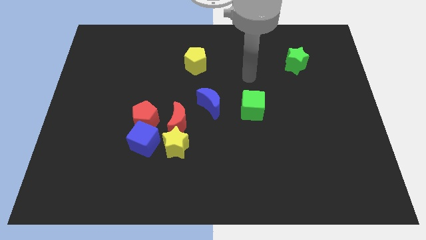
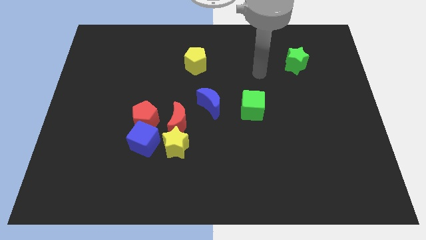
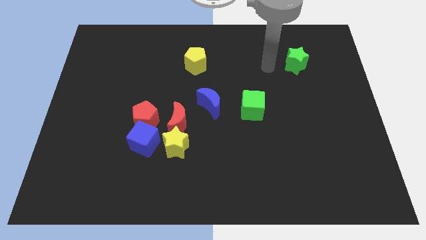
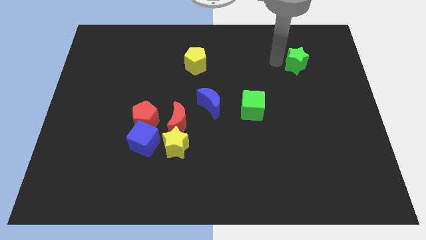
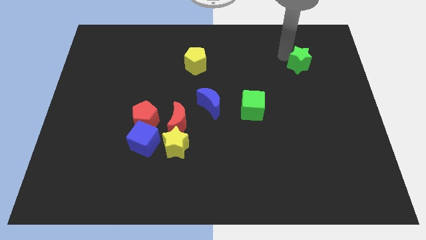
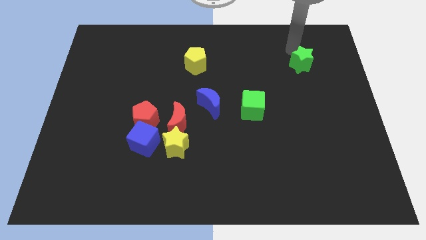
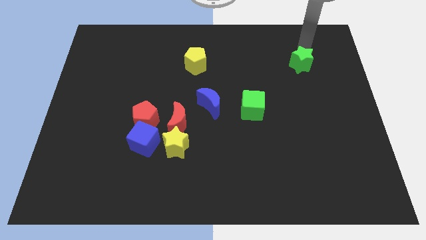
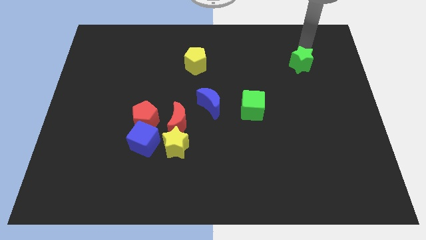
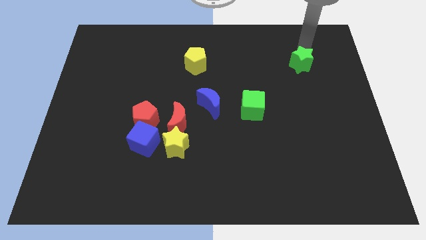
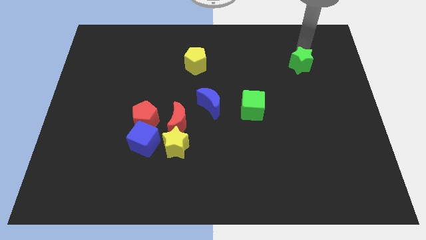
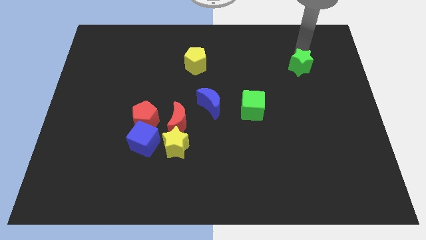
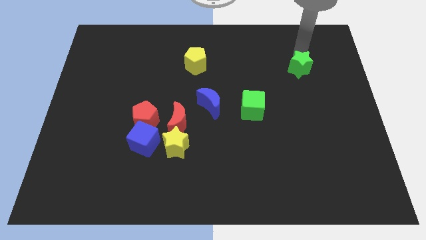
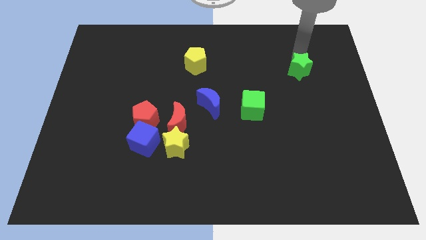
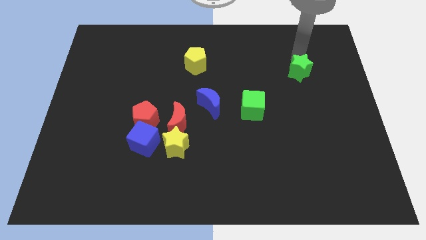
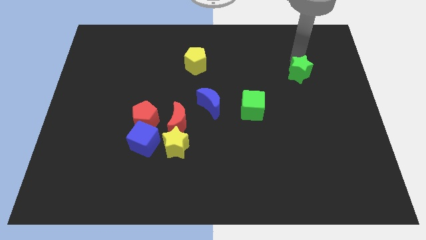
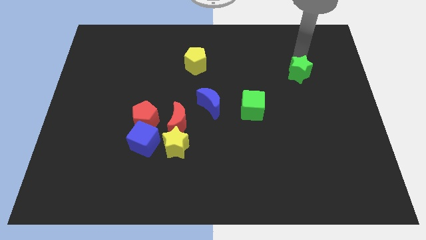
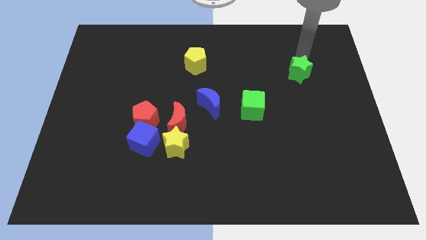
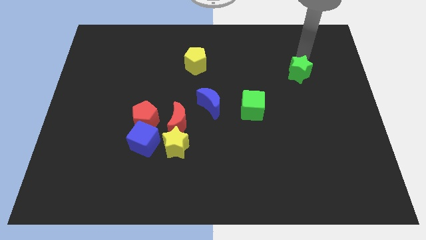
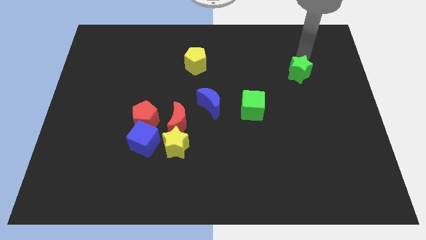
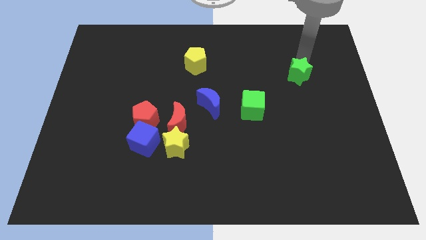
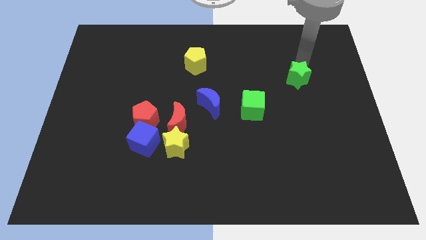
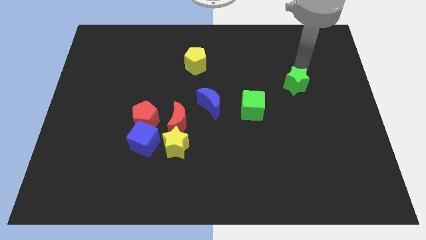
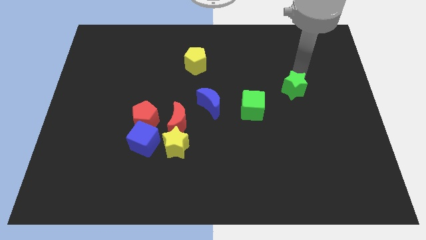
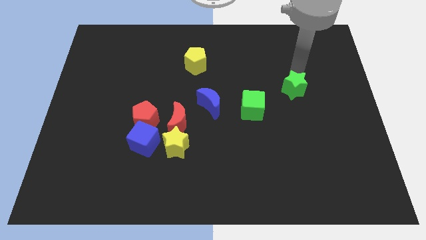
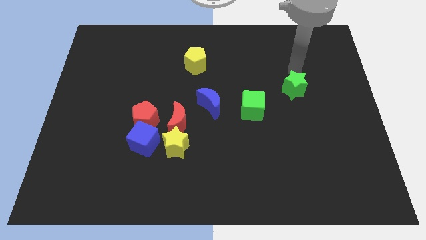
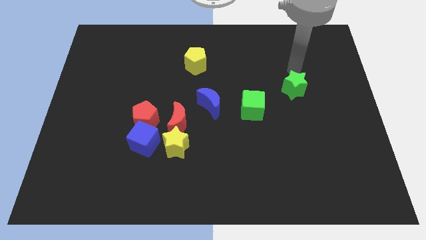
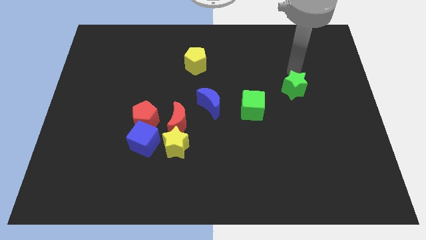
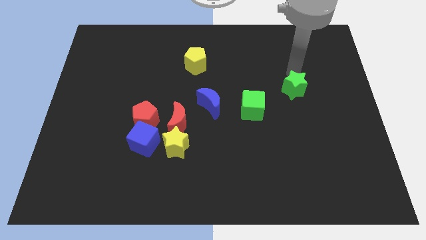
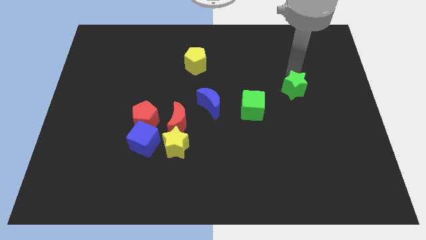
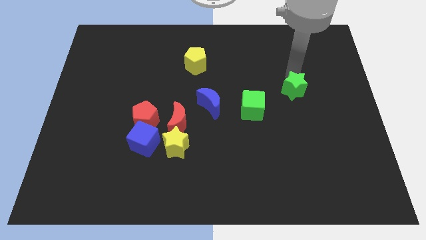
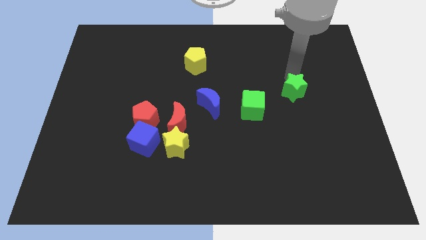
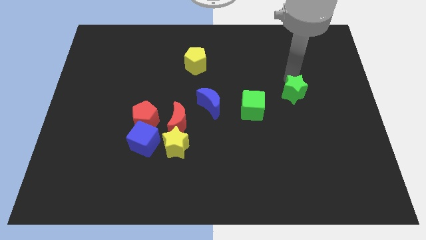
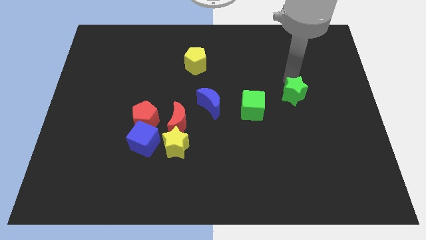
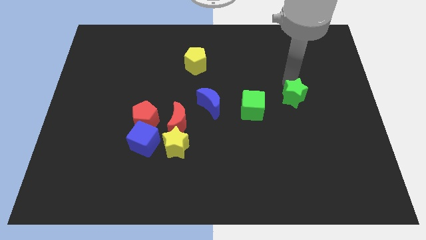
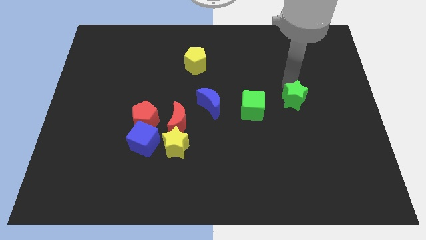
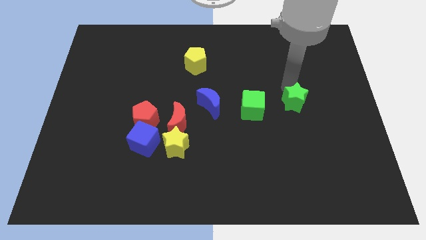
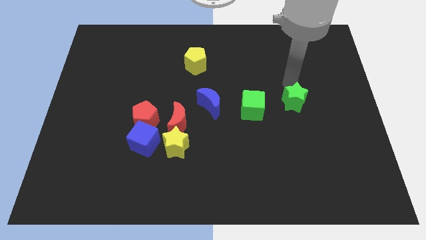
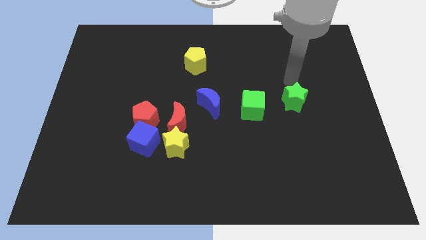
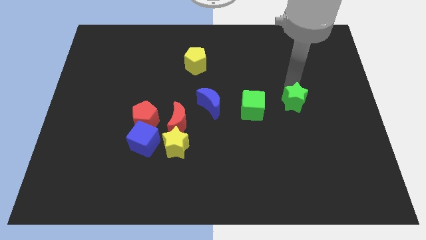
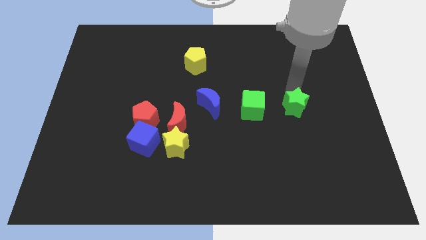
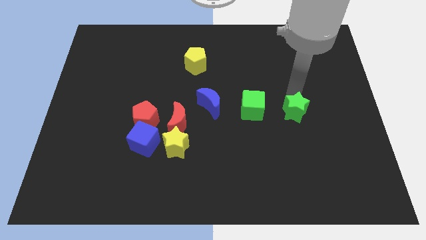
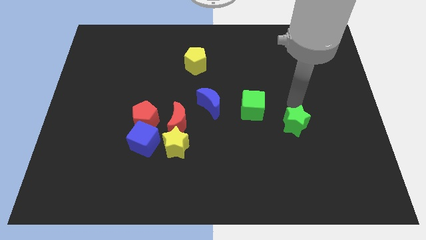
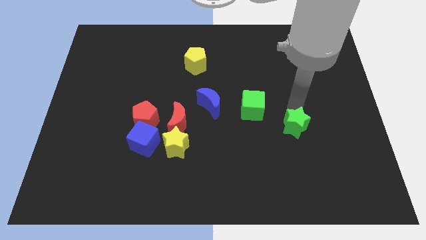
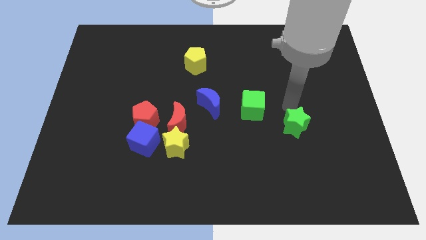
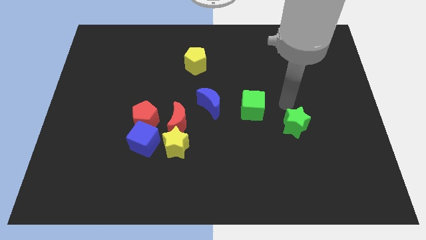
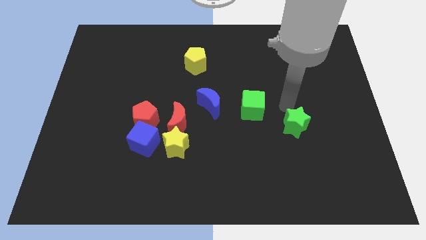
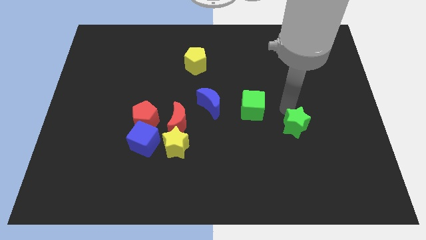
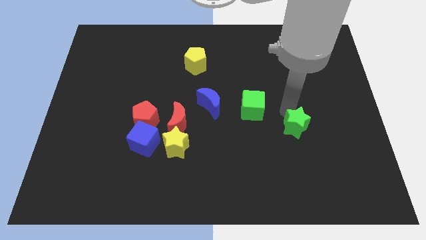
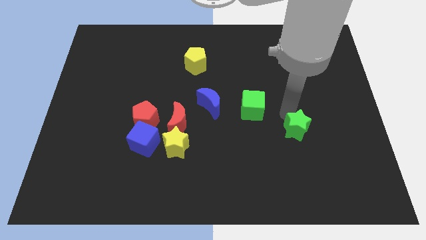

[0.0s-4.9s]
push the green star down

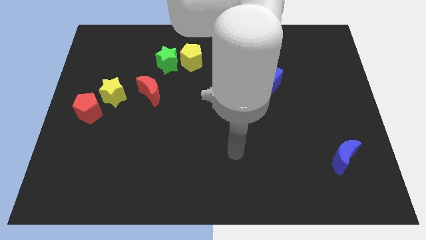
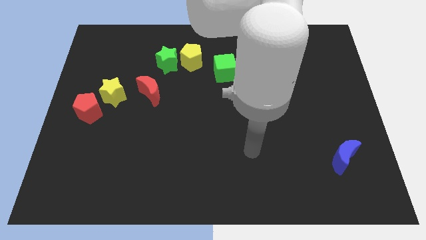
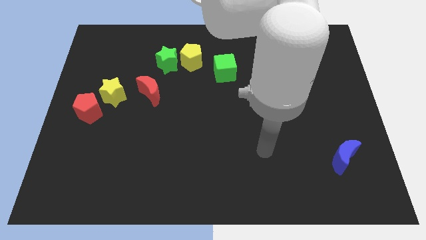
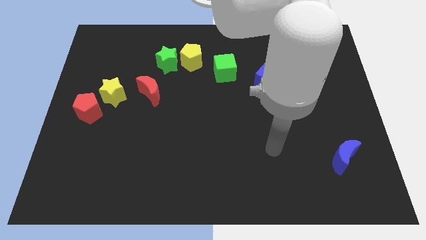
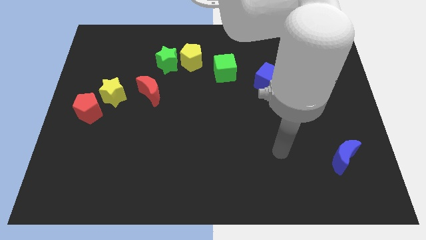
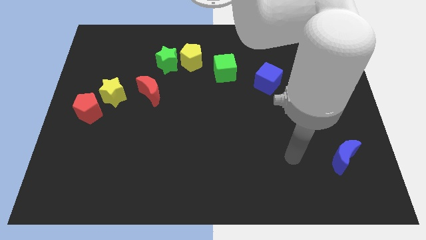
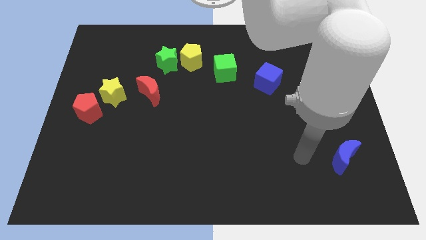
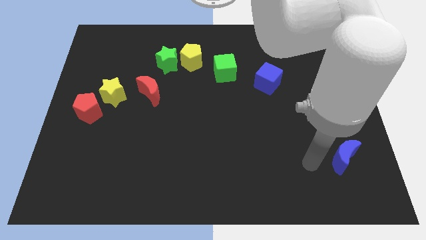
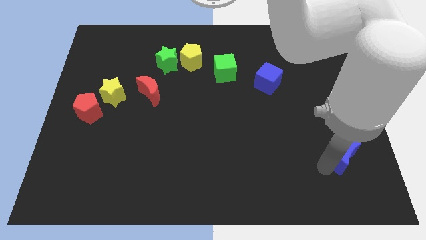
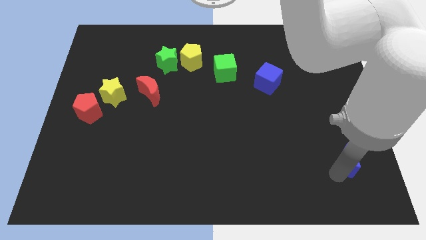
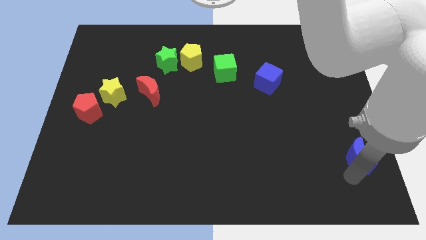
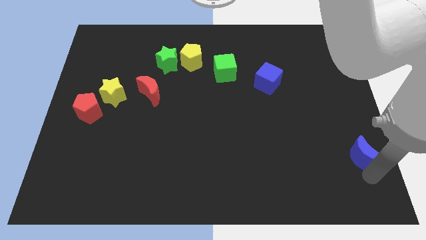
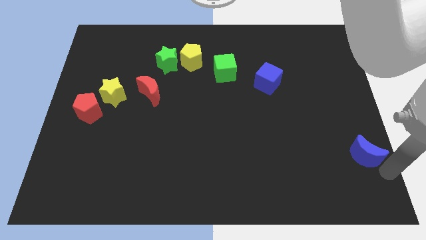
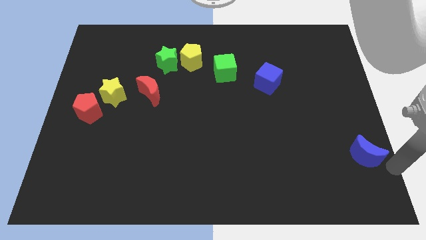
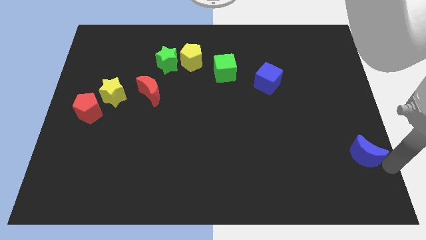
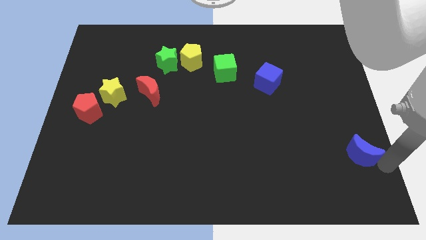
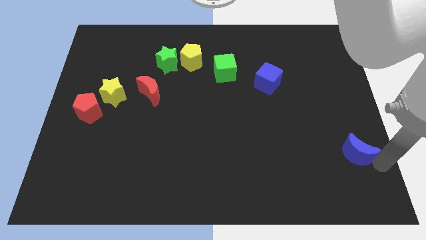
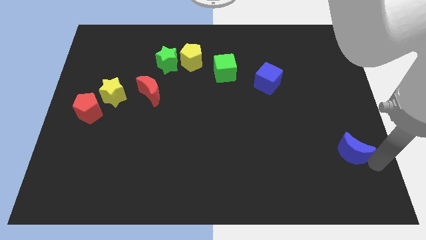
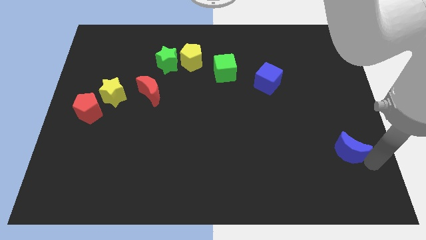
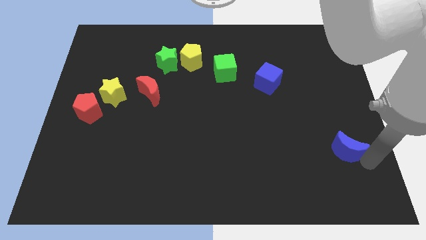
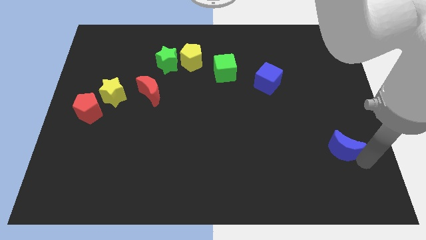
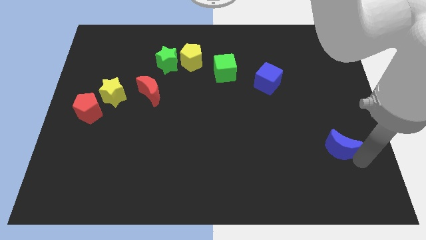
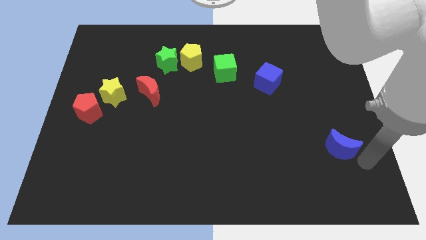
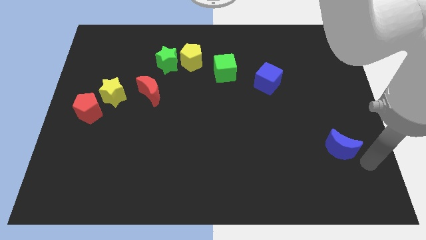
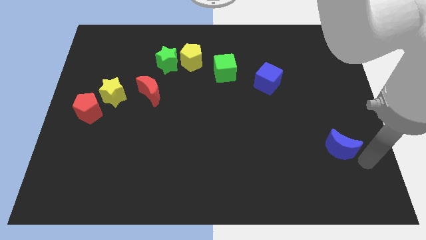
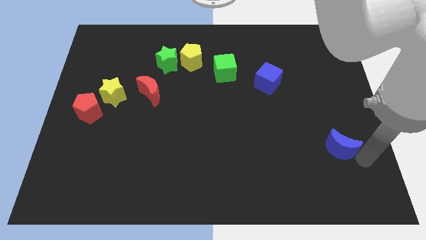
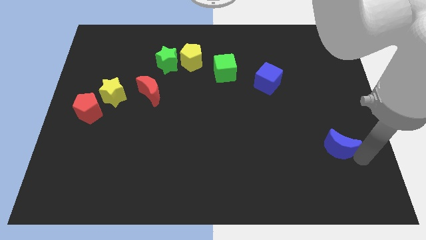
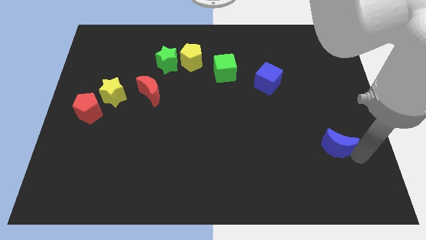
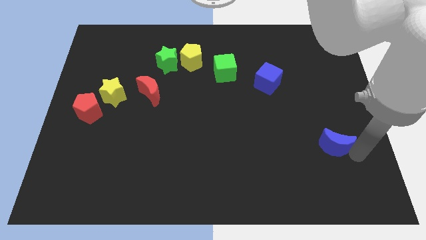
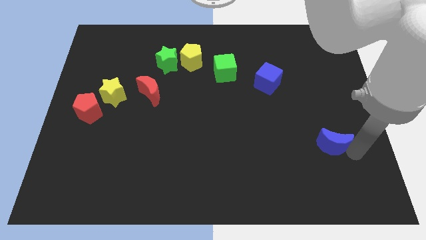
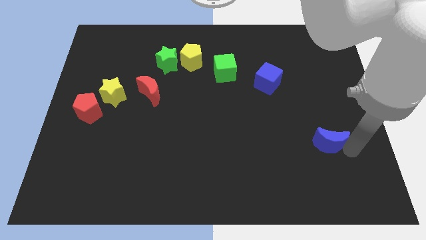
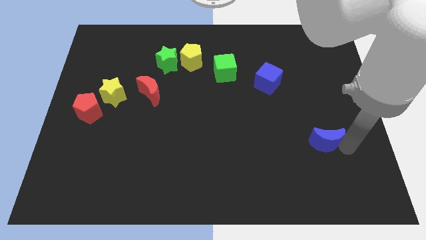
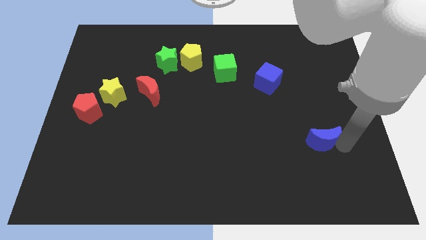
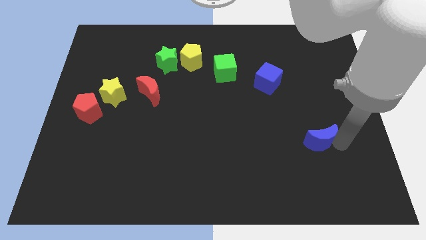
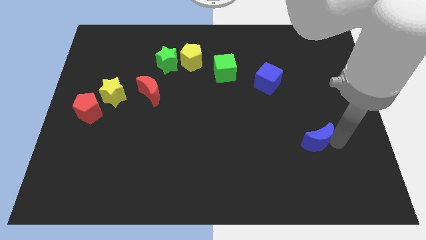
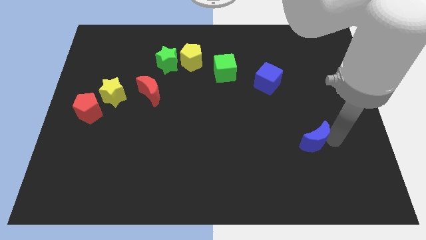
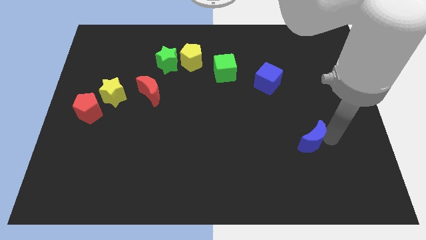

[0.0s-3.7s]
slide the blue moon upwards and to the left slightly
